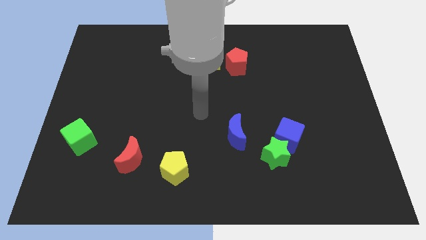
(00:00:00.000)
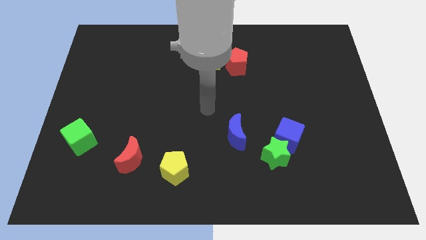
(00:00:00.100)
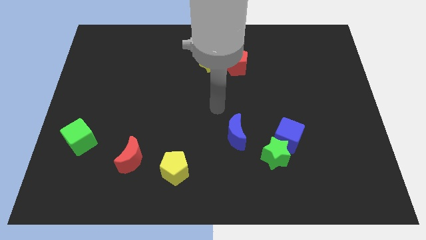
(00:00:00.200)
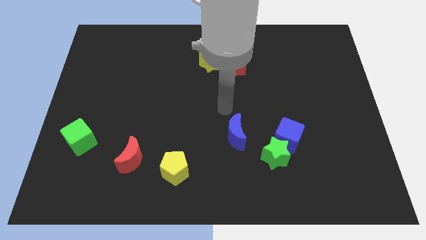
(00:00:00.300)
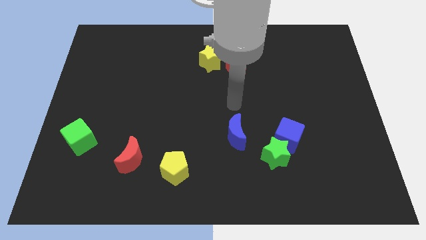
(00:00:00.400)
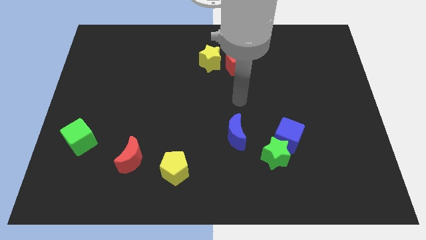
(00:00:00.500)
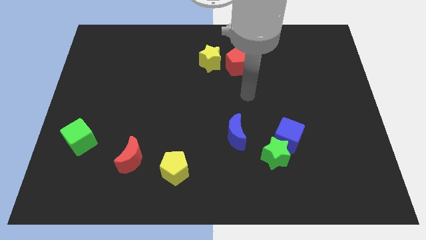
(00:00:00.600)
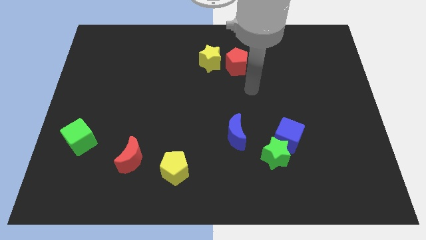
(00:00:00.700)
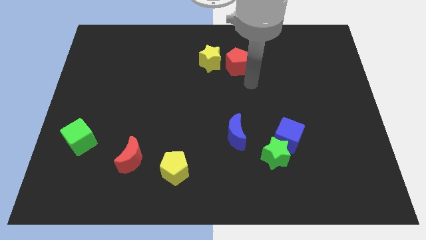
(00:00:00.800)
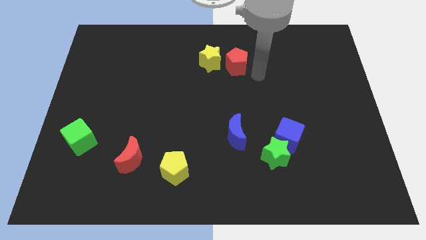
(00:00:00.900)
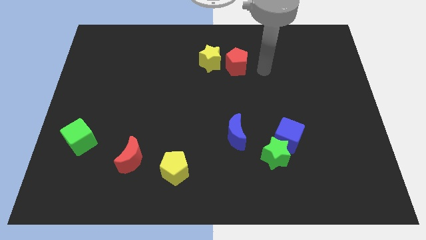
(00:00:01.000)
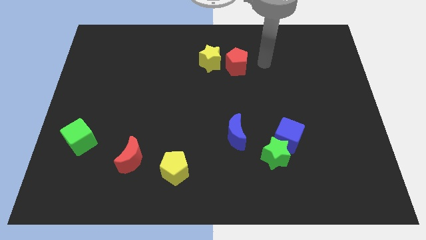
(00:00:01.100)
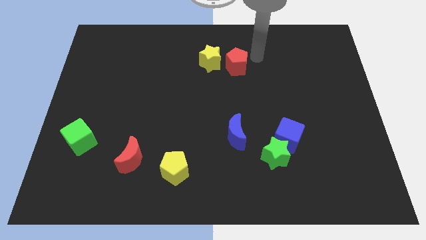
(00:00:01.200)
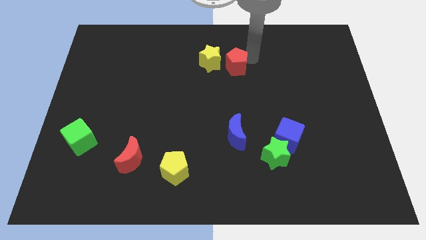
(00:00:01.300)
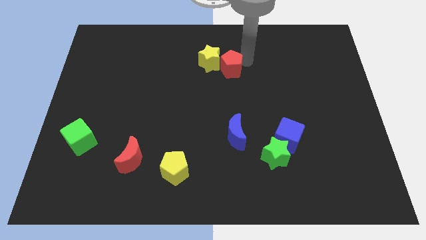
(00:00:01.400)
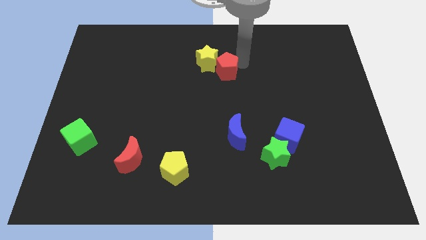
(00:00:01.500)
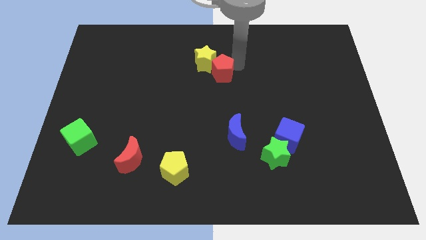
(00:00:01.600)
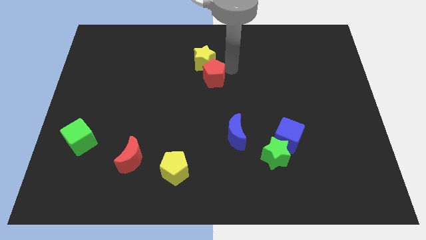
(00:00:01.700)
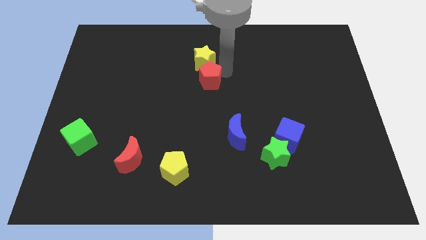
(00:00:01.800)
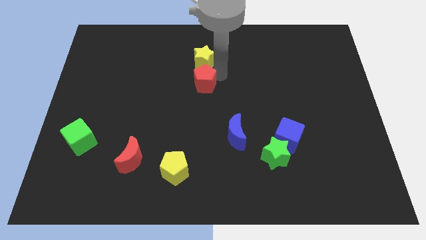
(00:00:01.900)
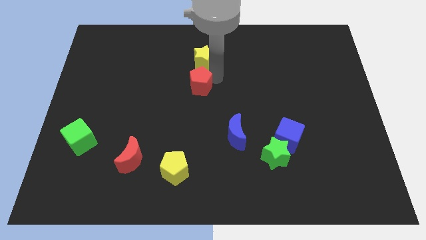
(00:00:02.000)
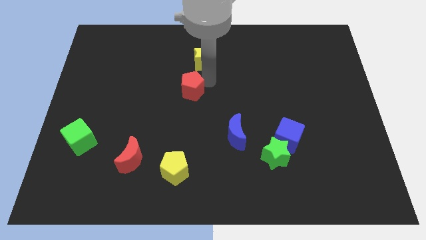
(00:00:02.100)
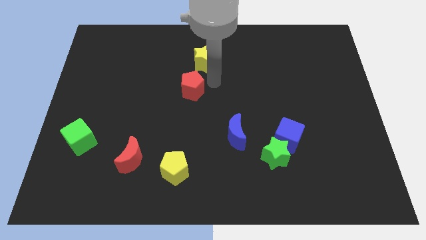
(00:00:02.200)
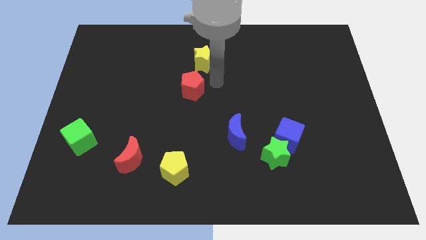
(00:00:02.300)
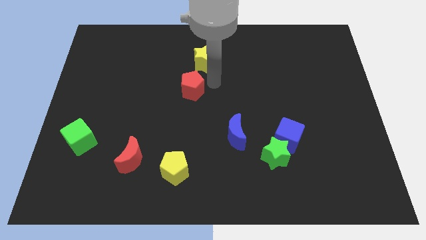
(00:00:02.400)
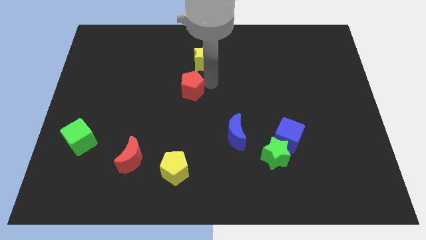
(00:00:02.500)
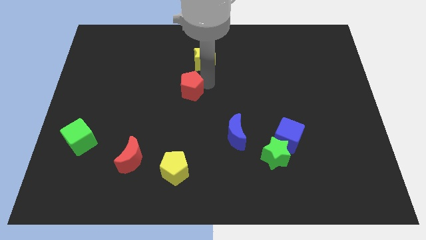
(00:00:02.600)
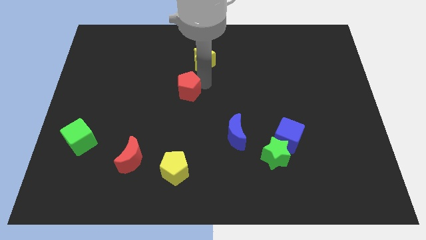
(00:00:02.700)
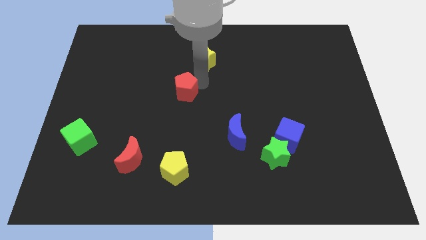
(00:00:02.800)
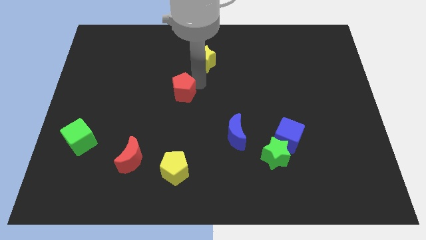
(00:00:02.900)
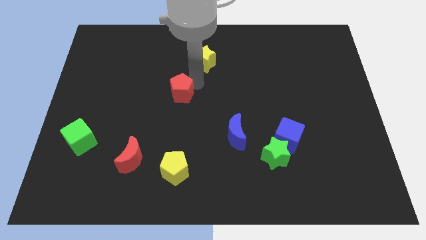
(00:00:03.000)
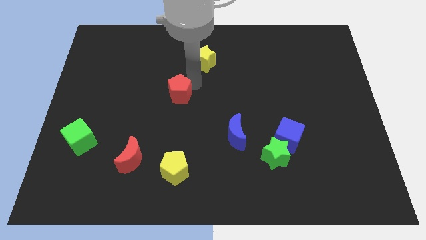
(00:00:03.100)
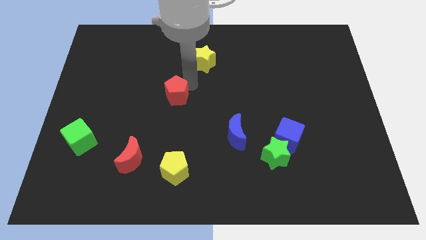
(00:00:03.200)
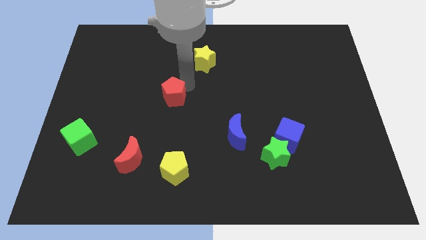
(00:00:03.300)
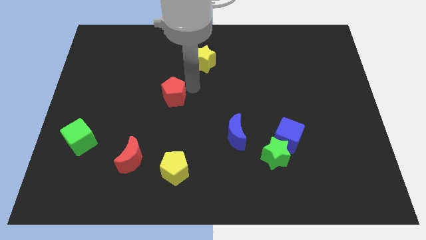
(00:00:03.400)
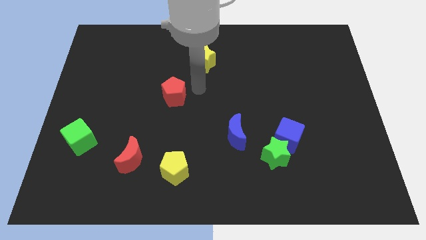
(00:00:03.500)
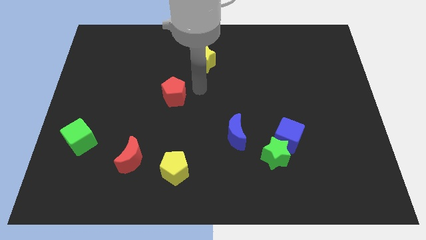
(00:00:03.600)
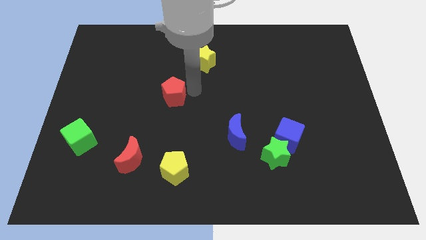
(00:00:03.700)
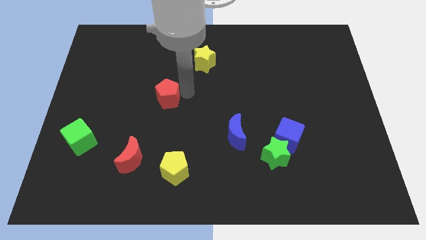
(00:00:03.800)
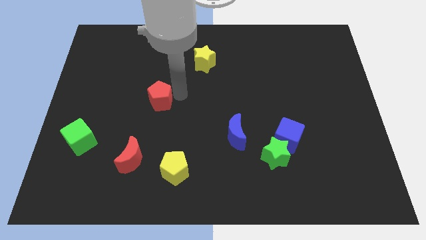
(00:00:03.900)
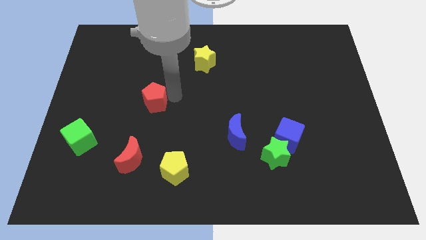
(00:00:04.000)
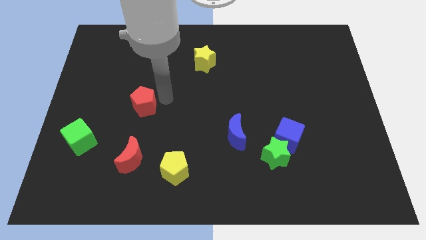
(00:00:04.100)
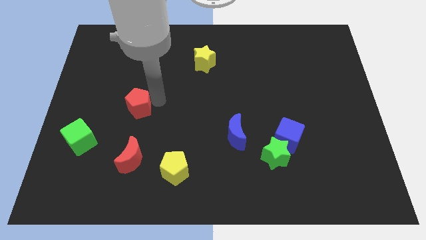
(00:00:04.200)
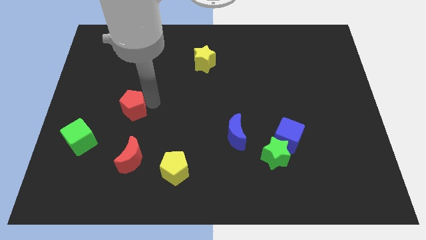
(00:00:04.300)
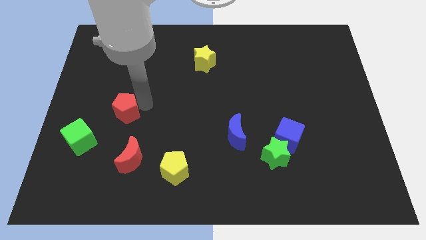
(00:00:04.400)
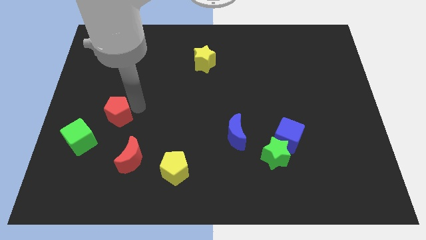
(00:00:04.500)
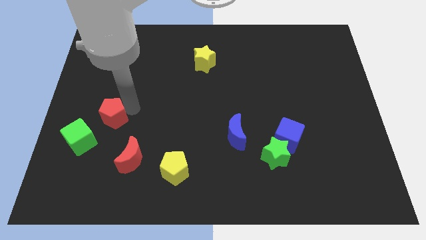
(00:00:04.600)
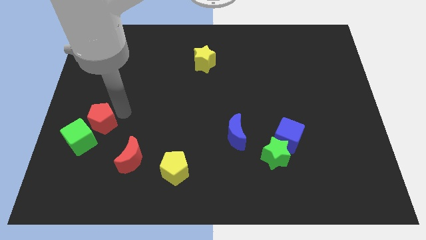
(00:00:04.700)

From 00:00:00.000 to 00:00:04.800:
move the red pentagon next to the green cube

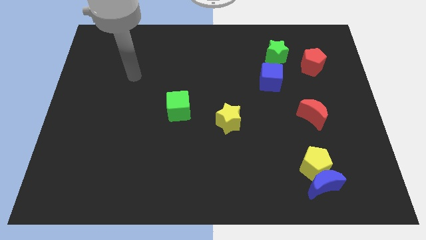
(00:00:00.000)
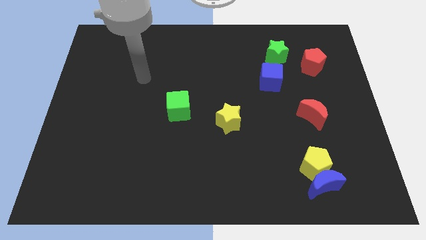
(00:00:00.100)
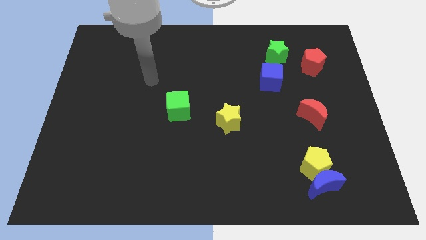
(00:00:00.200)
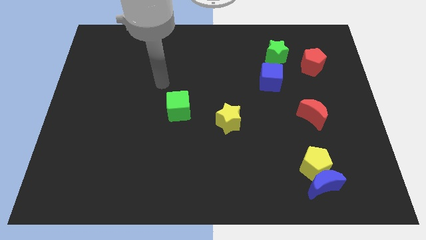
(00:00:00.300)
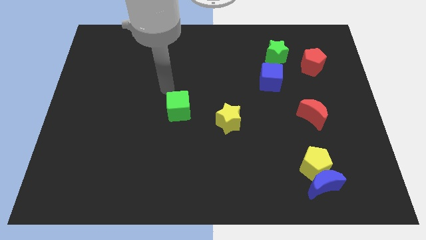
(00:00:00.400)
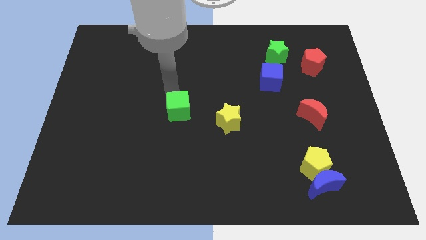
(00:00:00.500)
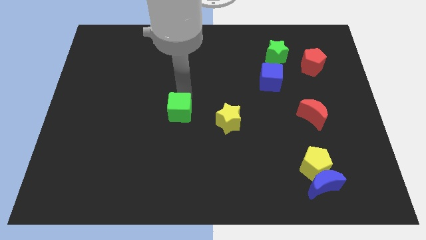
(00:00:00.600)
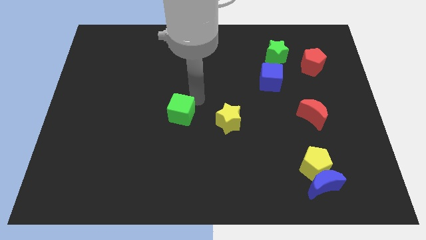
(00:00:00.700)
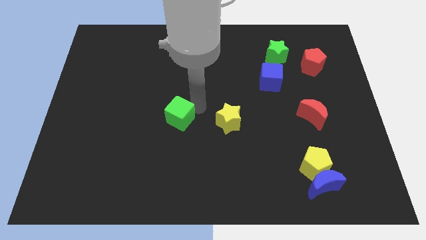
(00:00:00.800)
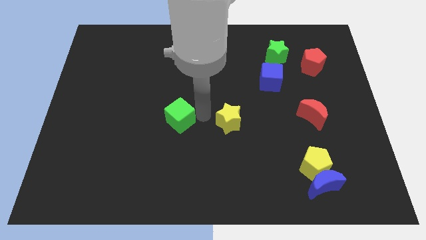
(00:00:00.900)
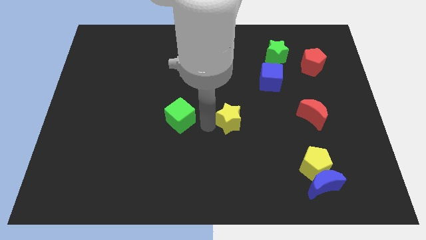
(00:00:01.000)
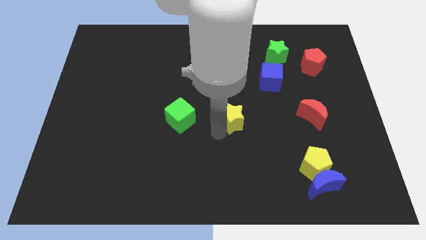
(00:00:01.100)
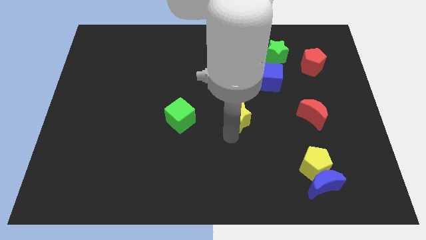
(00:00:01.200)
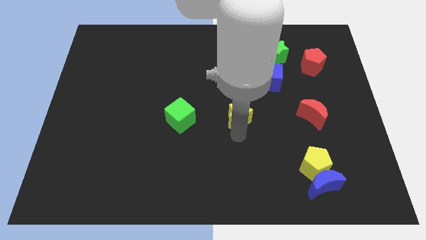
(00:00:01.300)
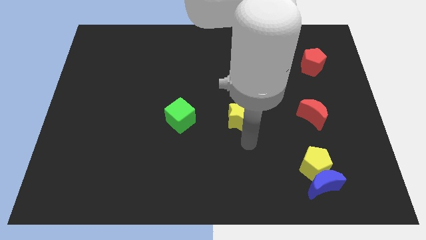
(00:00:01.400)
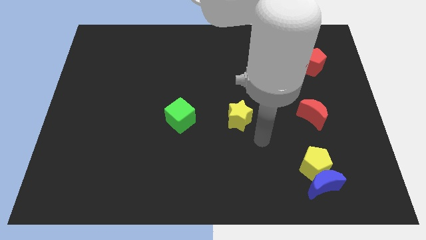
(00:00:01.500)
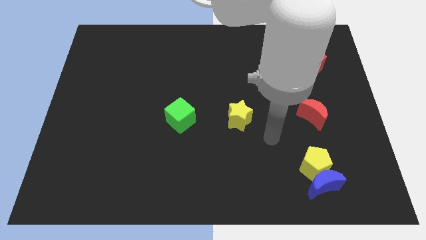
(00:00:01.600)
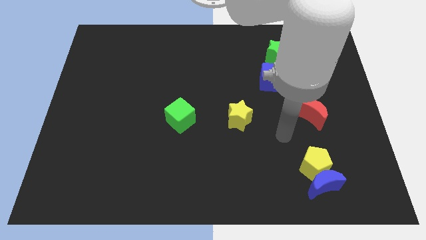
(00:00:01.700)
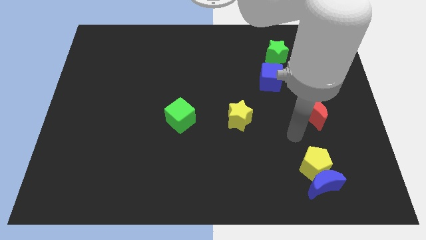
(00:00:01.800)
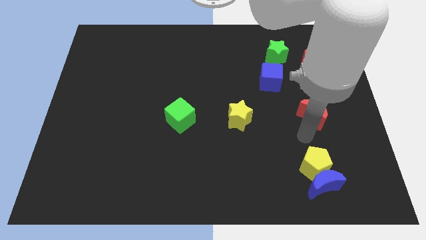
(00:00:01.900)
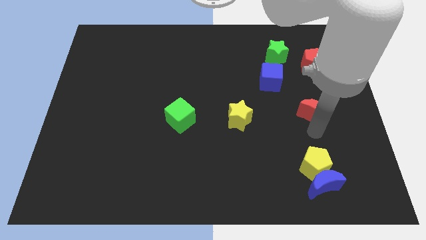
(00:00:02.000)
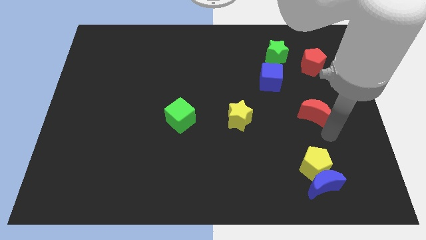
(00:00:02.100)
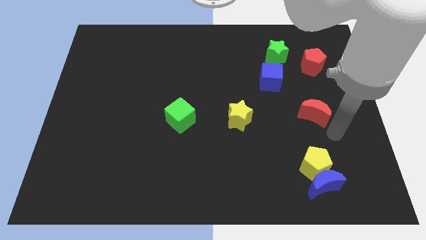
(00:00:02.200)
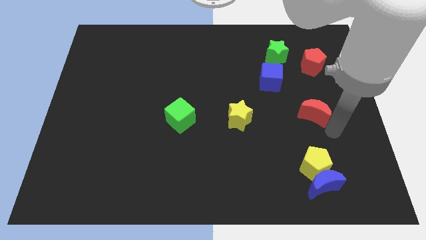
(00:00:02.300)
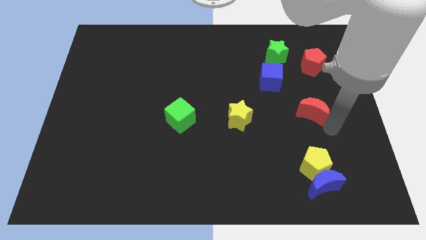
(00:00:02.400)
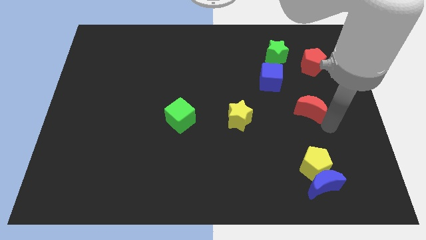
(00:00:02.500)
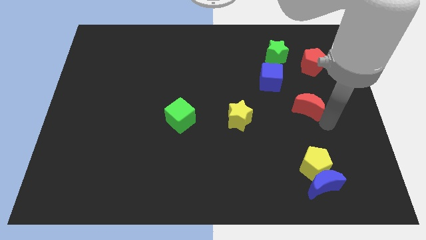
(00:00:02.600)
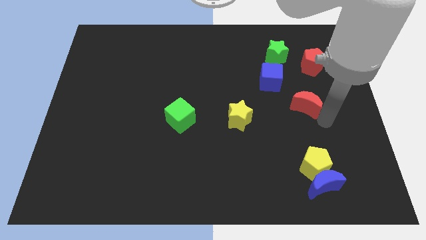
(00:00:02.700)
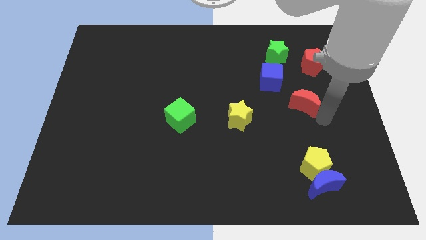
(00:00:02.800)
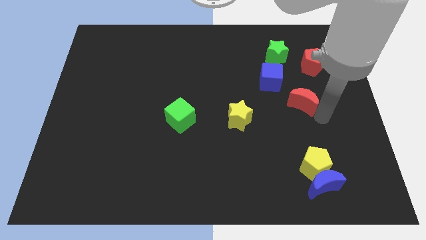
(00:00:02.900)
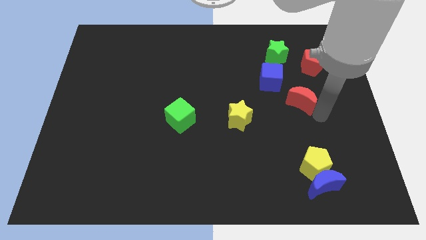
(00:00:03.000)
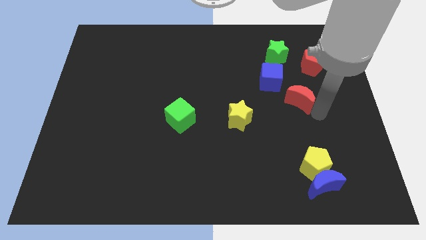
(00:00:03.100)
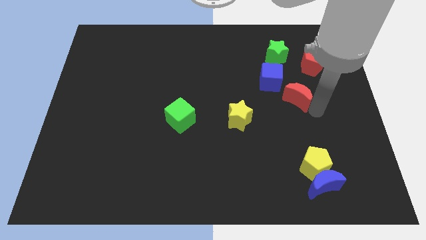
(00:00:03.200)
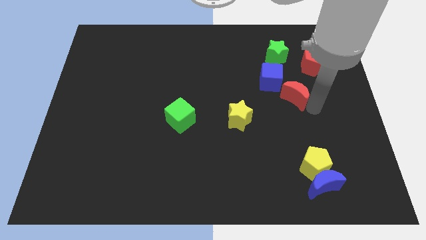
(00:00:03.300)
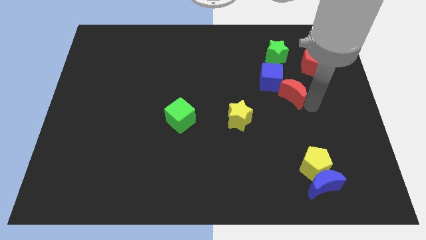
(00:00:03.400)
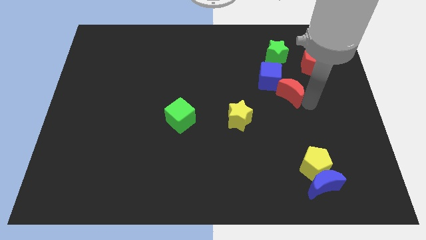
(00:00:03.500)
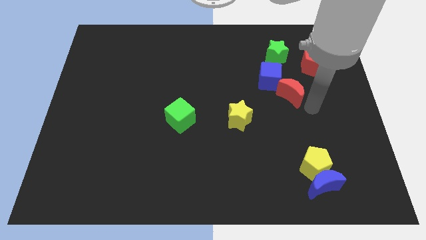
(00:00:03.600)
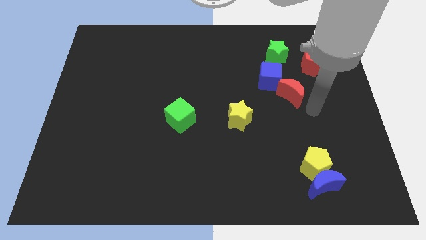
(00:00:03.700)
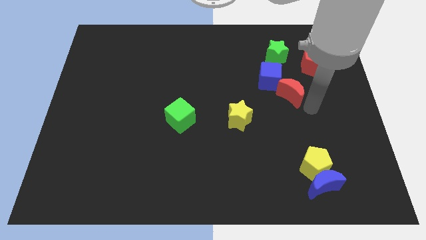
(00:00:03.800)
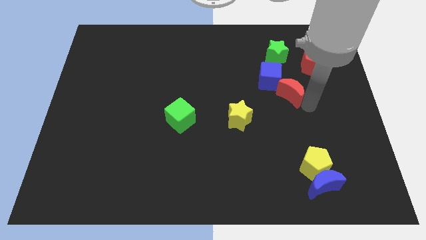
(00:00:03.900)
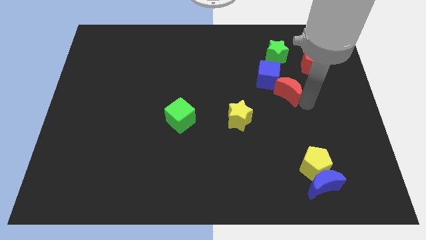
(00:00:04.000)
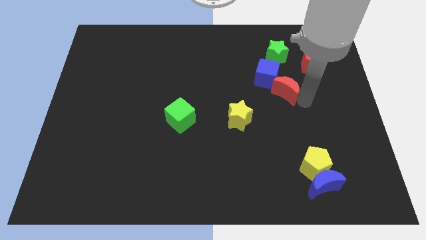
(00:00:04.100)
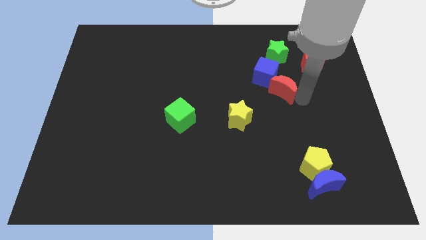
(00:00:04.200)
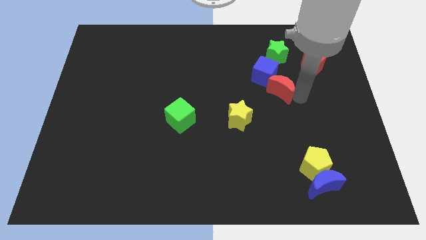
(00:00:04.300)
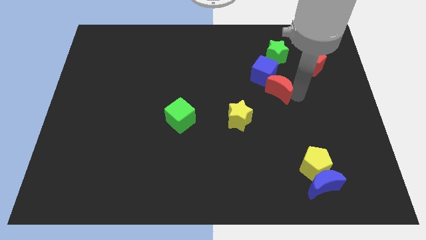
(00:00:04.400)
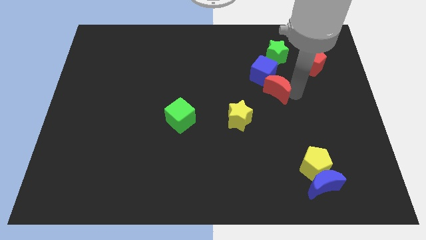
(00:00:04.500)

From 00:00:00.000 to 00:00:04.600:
push the red moon close to the blue cube
